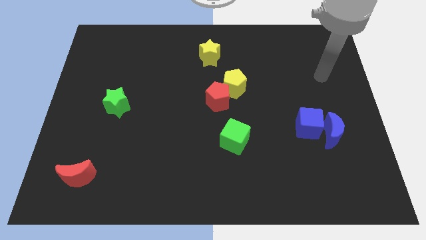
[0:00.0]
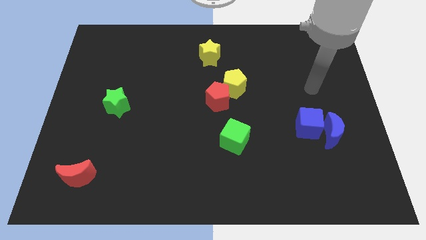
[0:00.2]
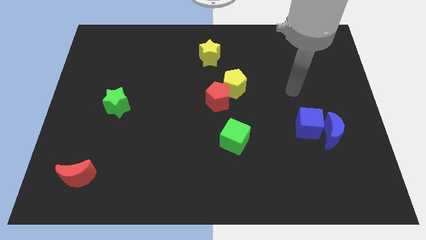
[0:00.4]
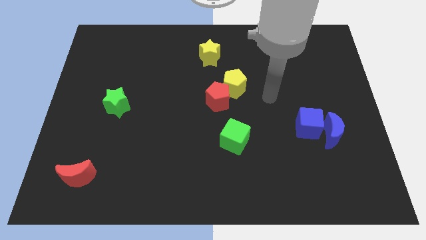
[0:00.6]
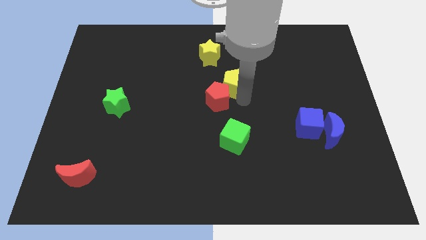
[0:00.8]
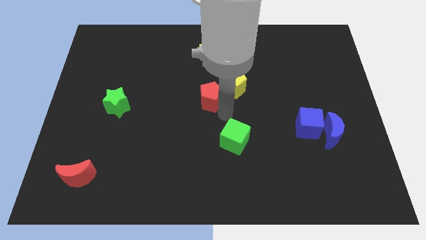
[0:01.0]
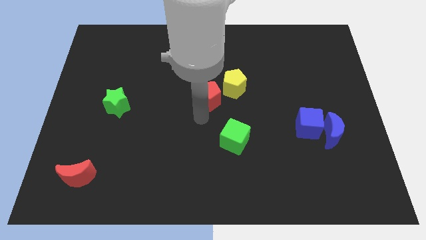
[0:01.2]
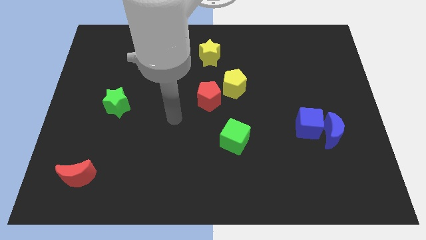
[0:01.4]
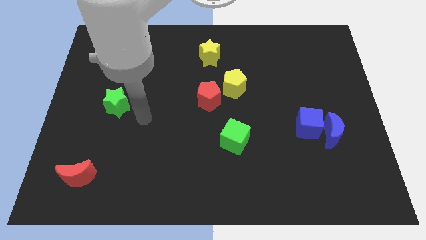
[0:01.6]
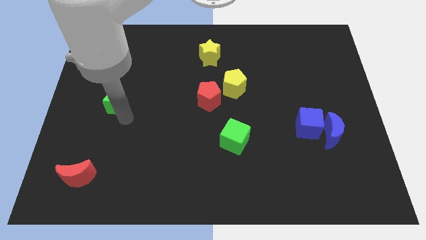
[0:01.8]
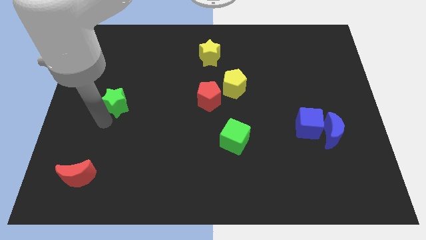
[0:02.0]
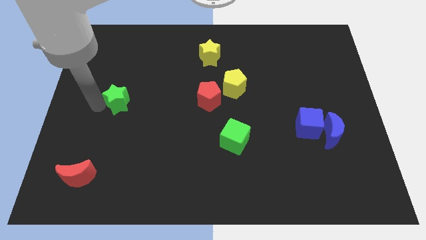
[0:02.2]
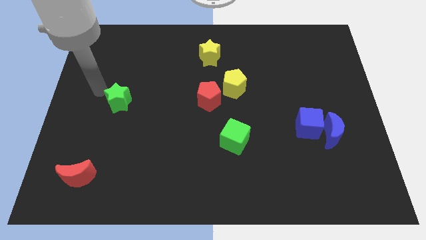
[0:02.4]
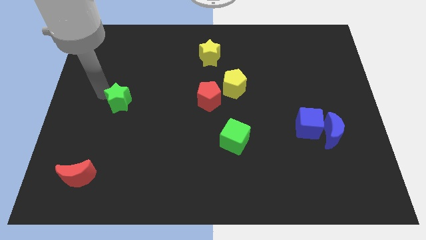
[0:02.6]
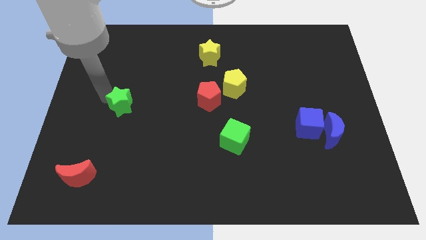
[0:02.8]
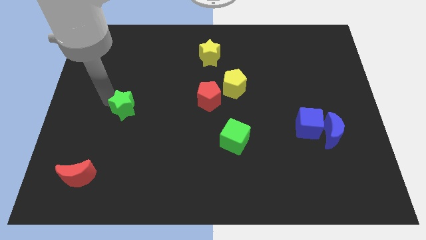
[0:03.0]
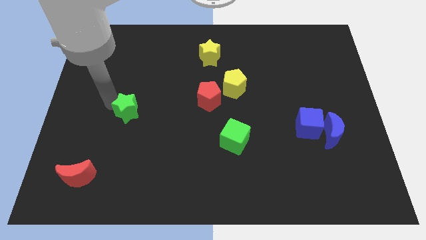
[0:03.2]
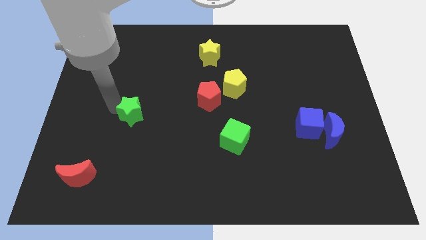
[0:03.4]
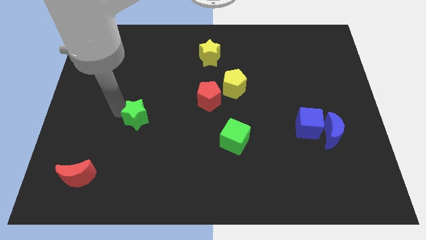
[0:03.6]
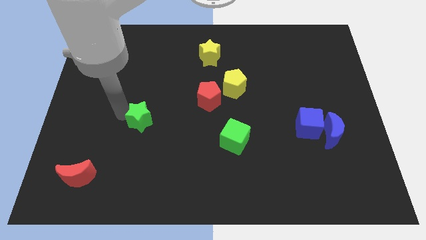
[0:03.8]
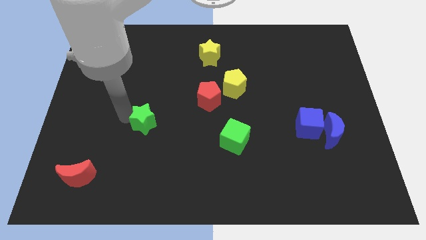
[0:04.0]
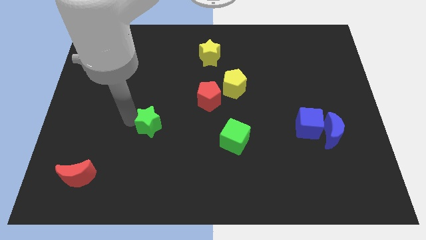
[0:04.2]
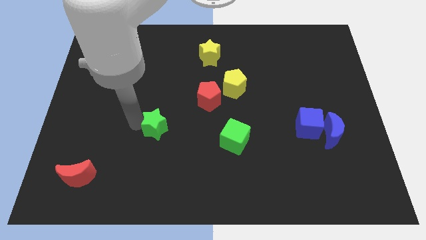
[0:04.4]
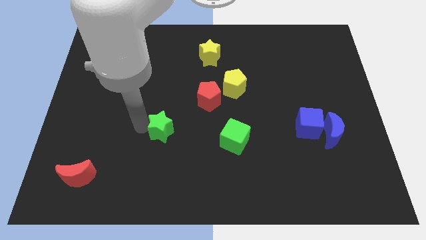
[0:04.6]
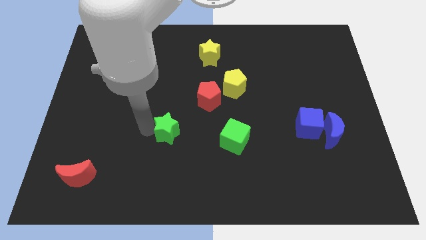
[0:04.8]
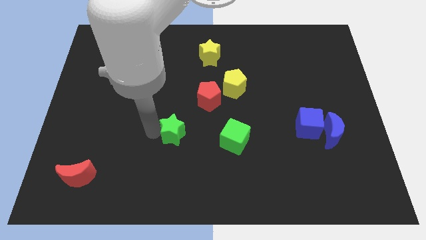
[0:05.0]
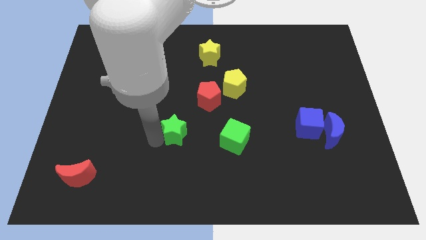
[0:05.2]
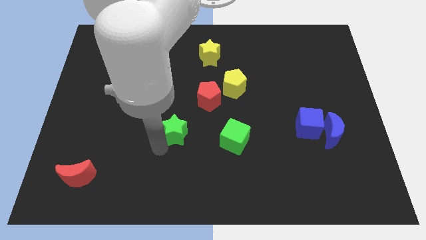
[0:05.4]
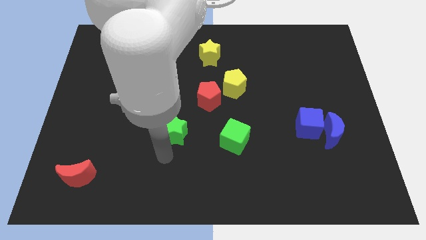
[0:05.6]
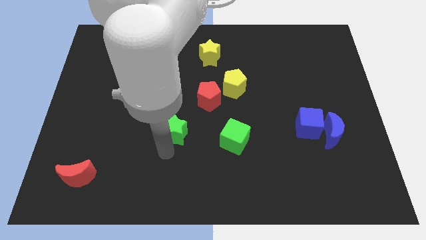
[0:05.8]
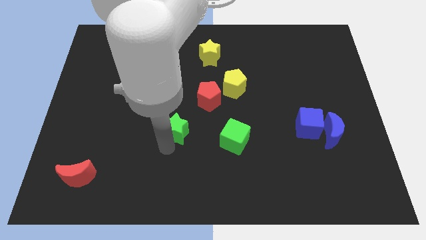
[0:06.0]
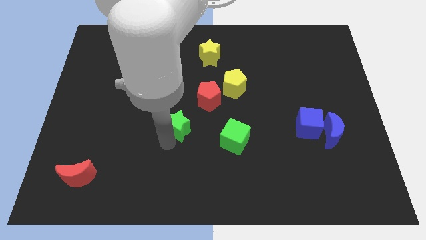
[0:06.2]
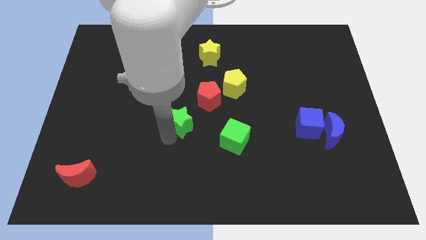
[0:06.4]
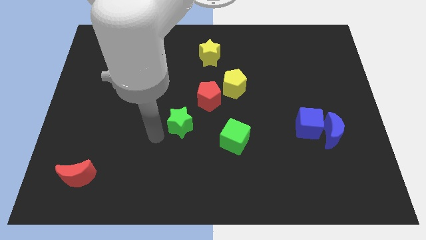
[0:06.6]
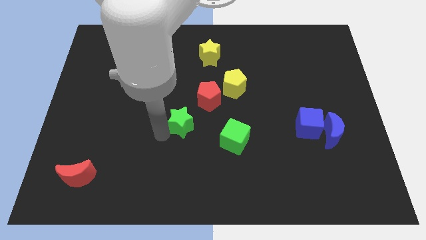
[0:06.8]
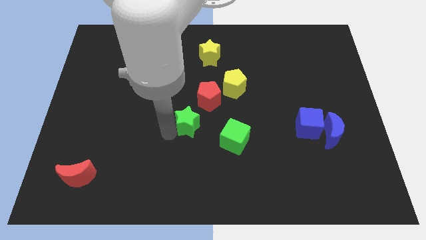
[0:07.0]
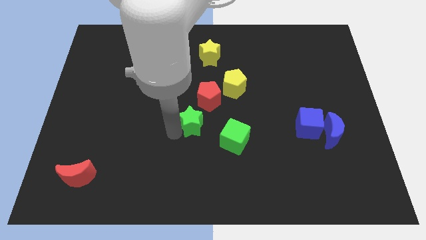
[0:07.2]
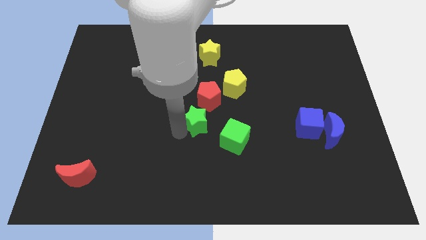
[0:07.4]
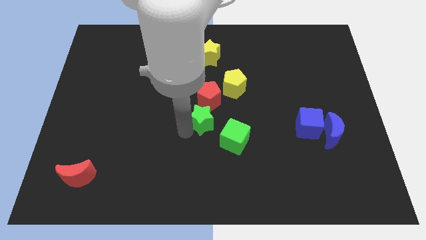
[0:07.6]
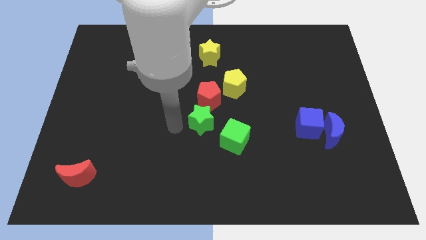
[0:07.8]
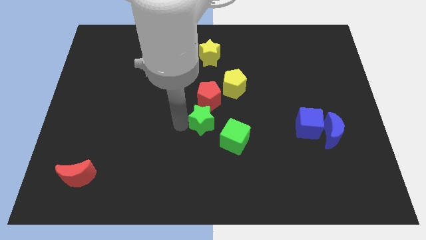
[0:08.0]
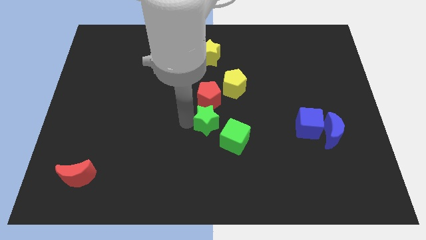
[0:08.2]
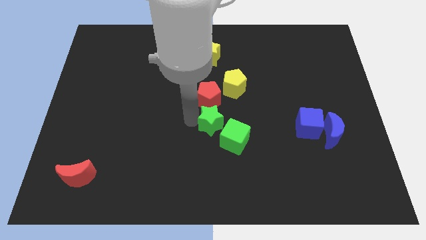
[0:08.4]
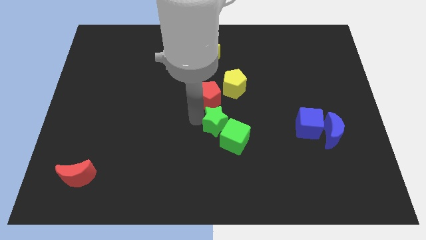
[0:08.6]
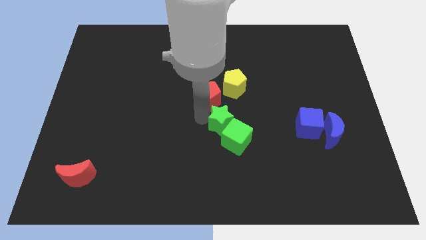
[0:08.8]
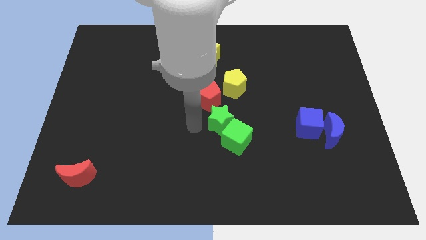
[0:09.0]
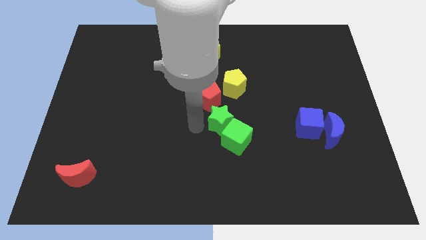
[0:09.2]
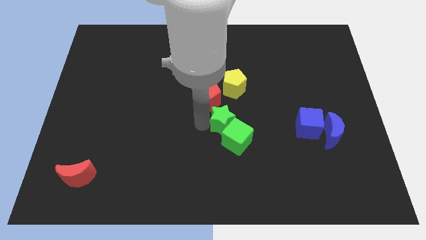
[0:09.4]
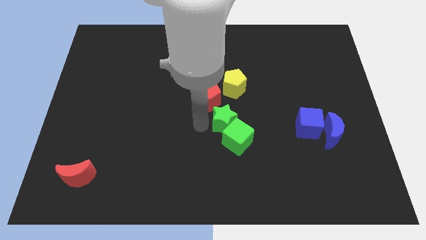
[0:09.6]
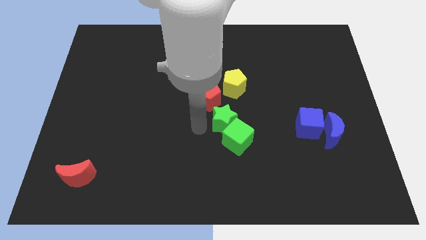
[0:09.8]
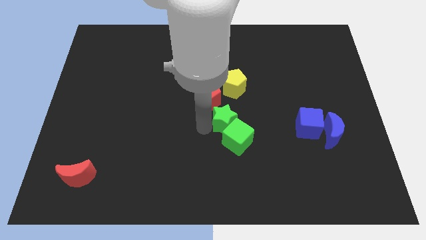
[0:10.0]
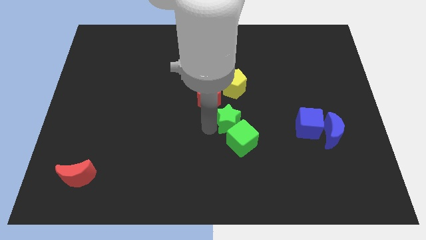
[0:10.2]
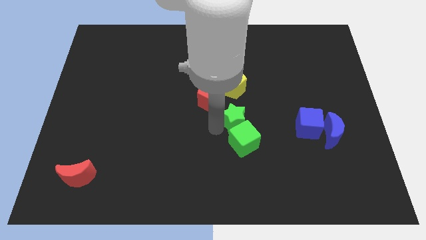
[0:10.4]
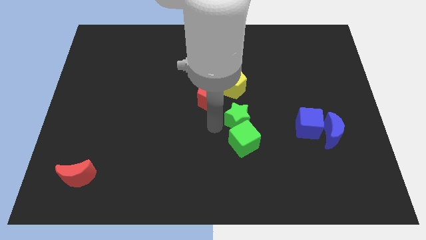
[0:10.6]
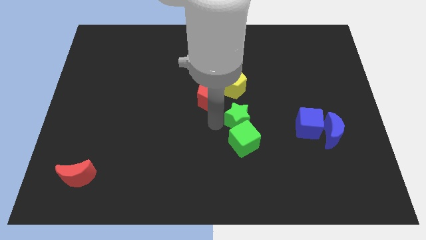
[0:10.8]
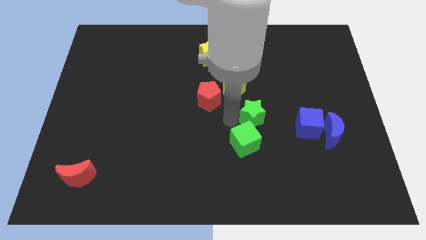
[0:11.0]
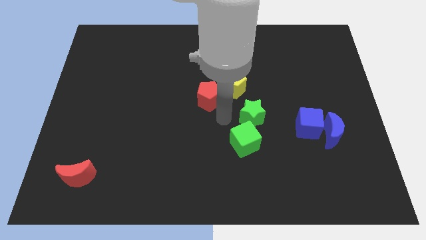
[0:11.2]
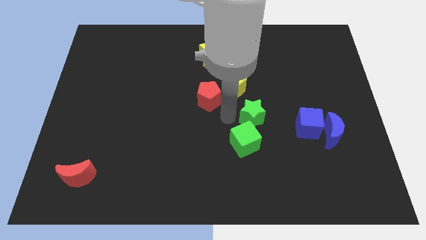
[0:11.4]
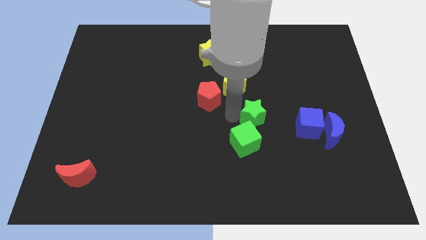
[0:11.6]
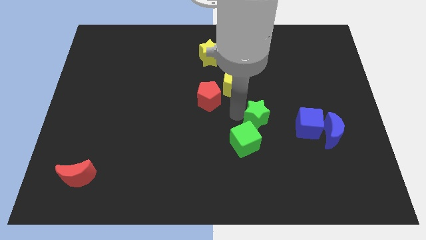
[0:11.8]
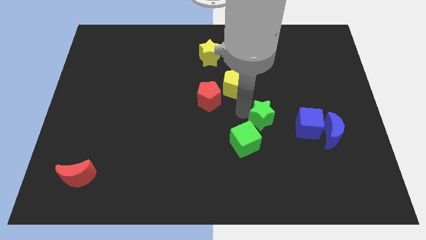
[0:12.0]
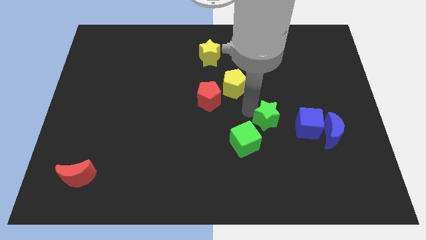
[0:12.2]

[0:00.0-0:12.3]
put the green star to the top left side of the blue cube
